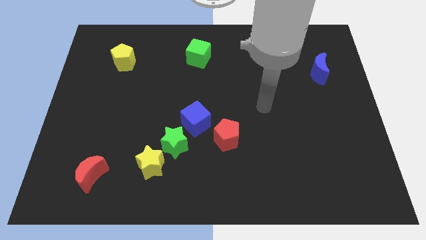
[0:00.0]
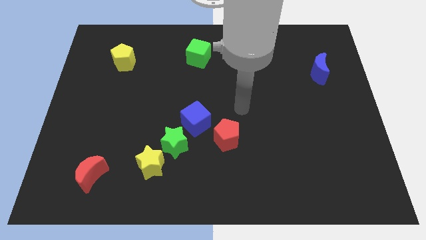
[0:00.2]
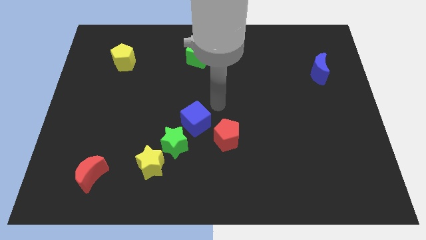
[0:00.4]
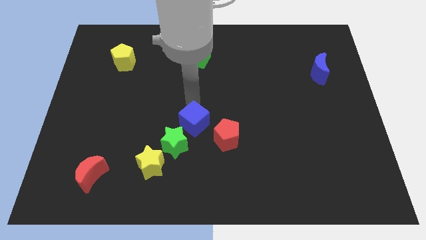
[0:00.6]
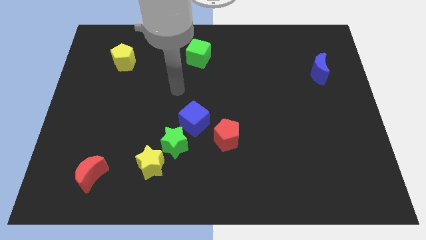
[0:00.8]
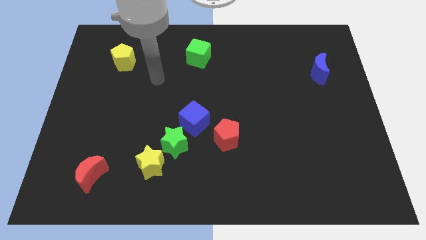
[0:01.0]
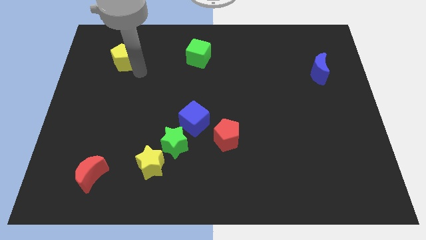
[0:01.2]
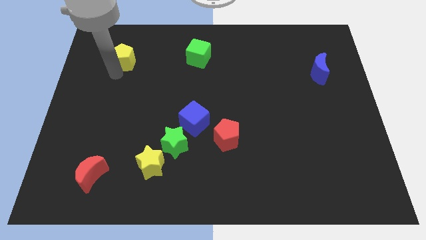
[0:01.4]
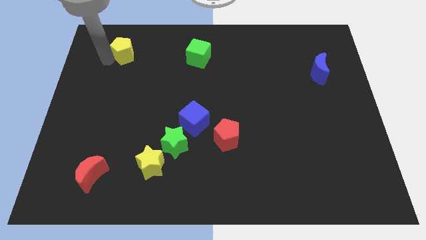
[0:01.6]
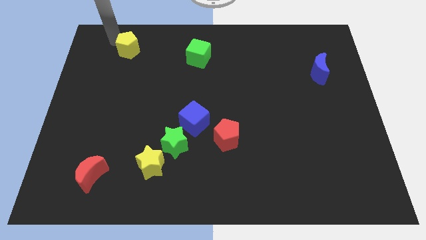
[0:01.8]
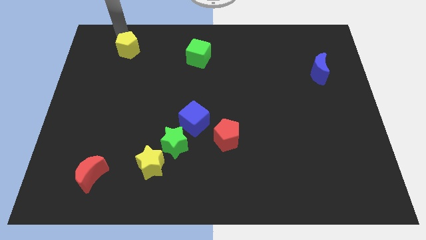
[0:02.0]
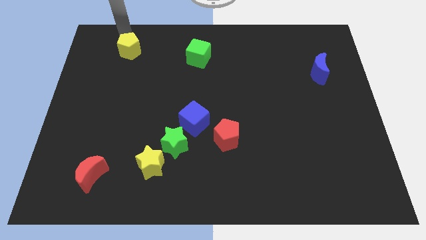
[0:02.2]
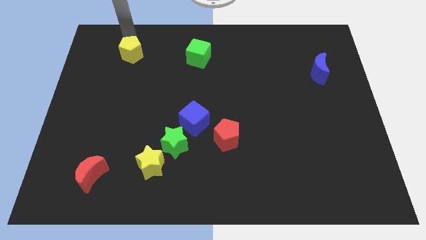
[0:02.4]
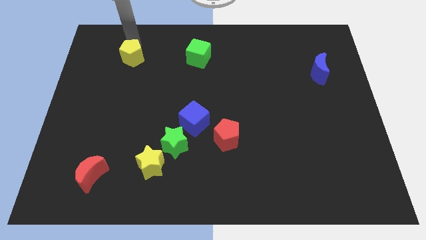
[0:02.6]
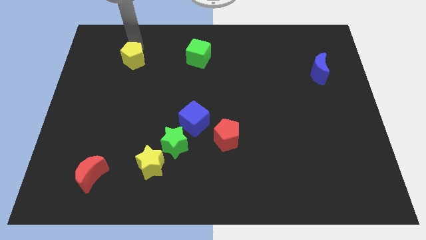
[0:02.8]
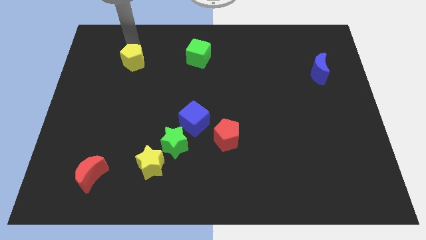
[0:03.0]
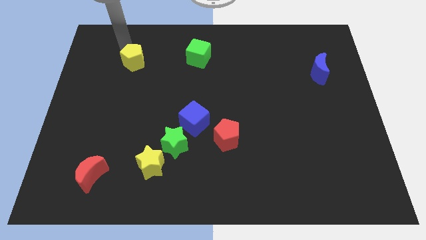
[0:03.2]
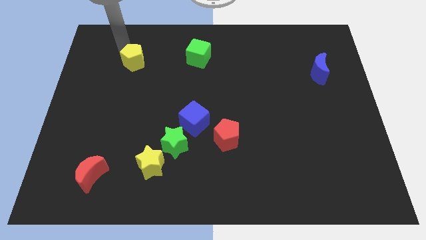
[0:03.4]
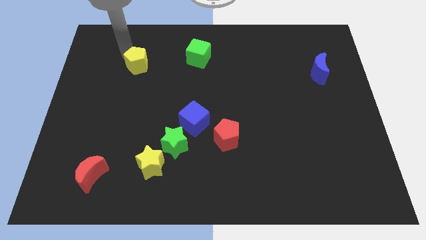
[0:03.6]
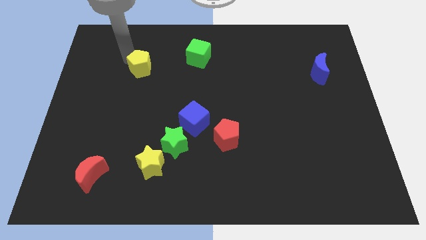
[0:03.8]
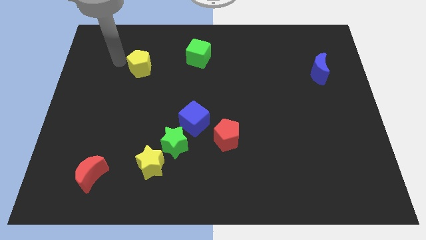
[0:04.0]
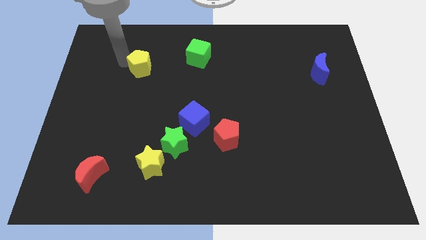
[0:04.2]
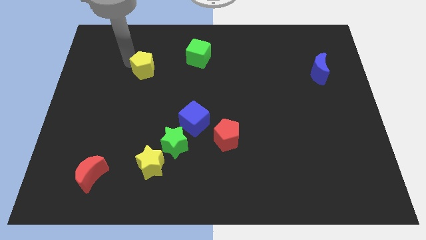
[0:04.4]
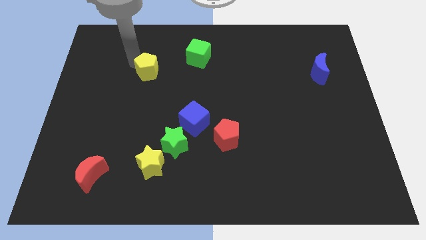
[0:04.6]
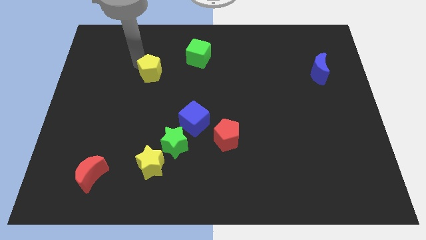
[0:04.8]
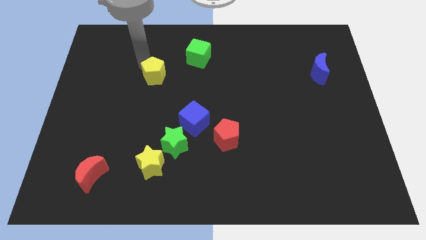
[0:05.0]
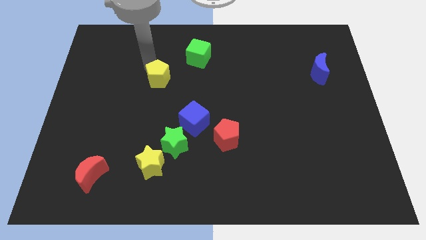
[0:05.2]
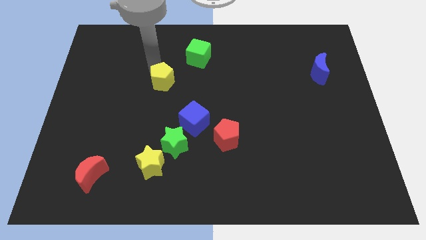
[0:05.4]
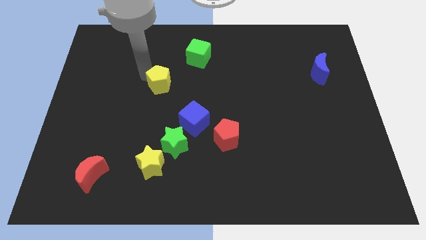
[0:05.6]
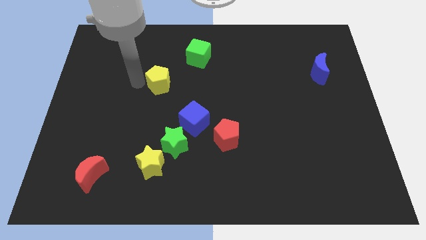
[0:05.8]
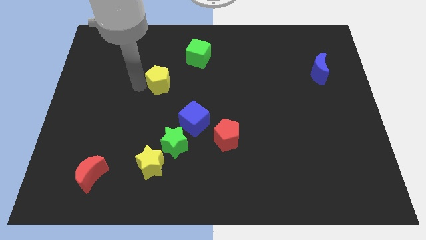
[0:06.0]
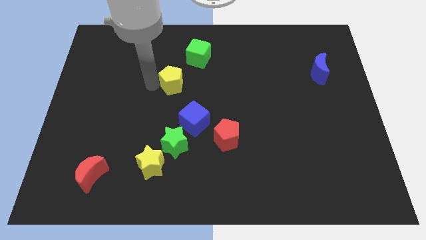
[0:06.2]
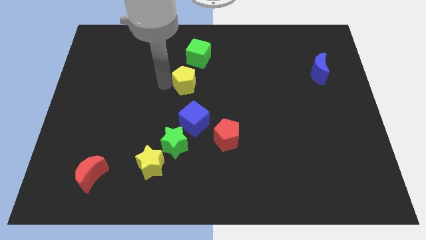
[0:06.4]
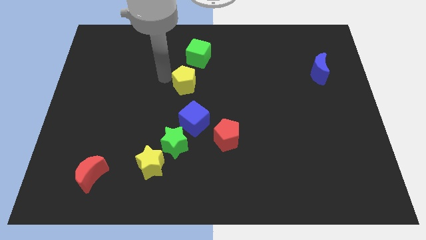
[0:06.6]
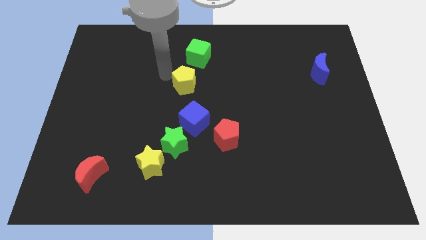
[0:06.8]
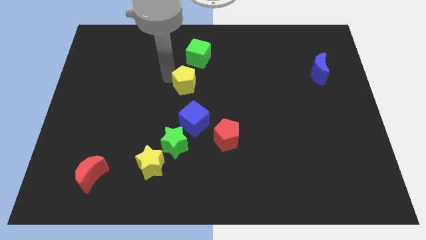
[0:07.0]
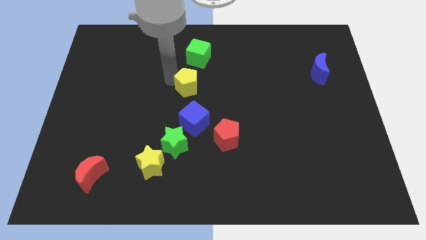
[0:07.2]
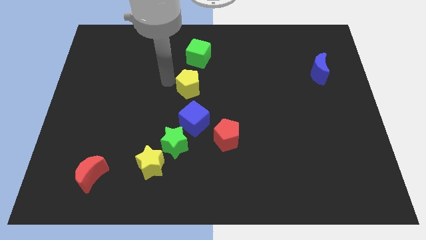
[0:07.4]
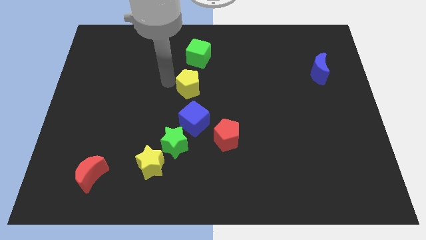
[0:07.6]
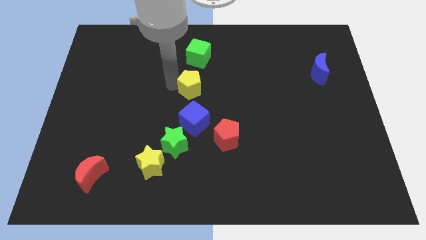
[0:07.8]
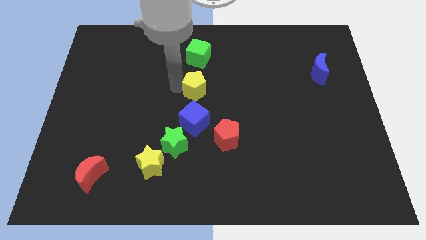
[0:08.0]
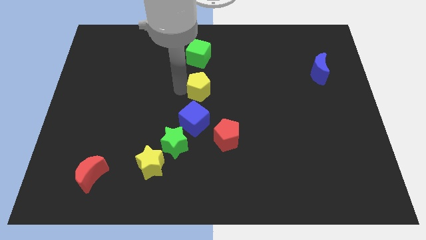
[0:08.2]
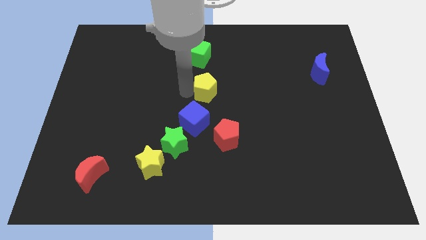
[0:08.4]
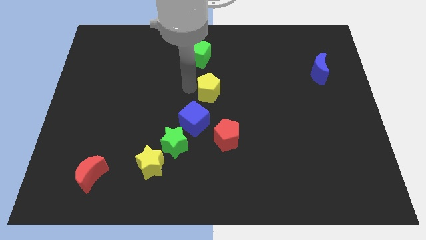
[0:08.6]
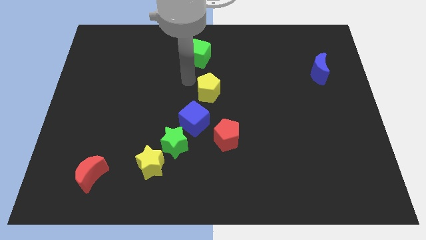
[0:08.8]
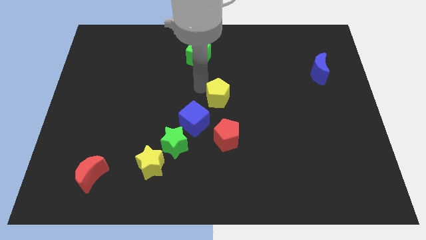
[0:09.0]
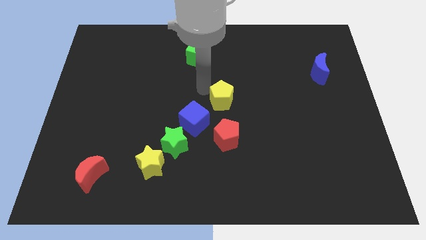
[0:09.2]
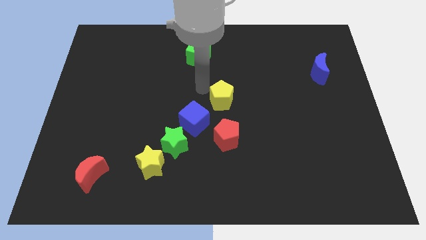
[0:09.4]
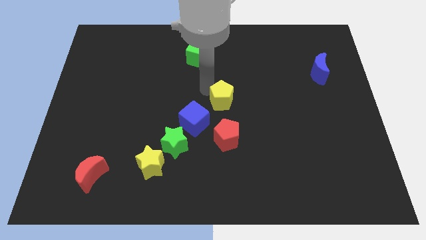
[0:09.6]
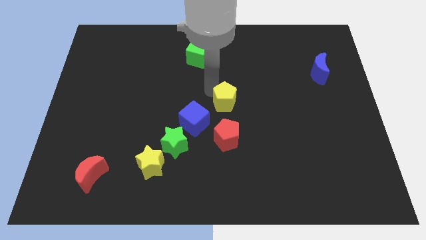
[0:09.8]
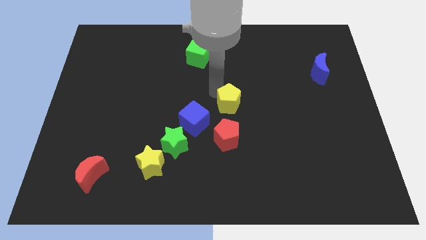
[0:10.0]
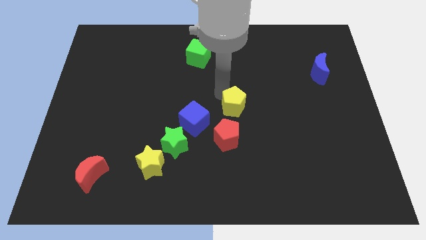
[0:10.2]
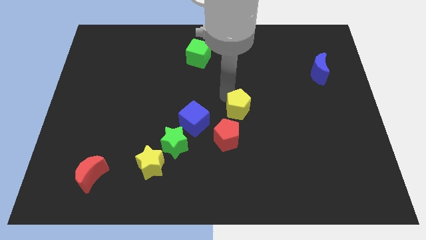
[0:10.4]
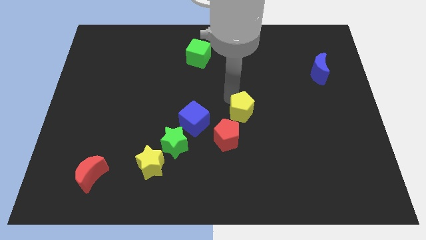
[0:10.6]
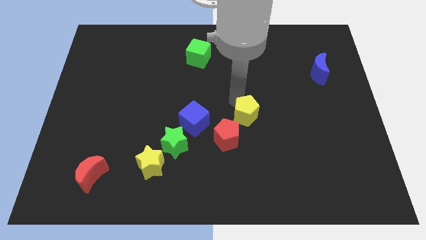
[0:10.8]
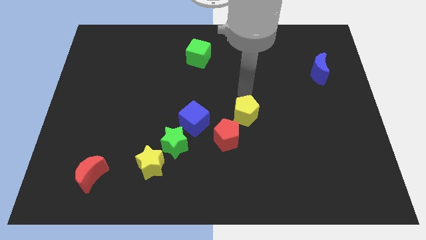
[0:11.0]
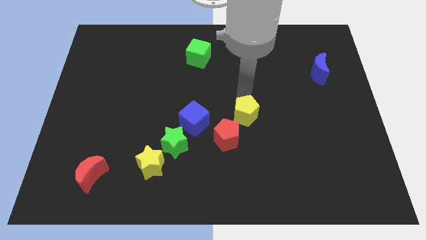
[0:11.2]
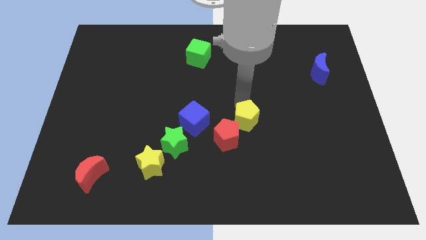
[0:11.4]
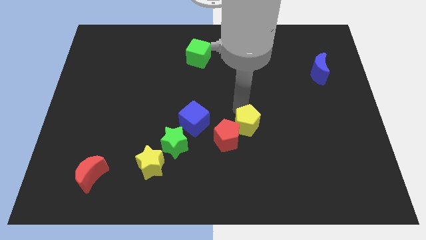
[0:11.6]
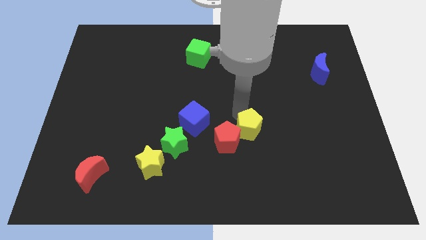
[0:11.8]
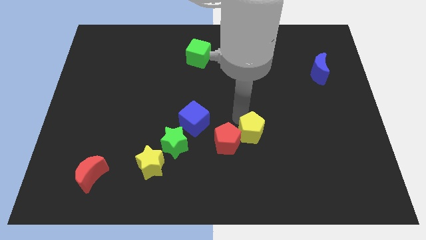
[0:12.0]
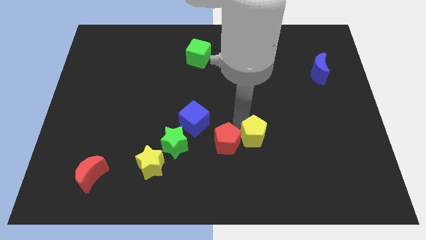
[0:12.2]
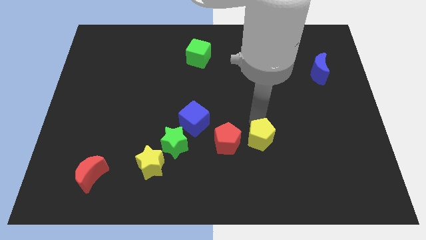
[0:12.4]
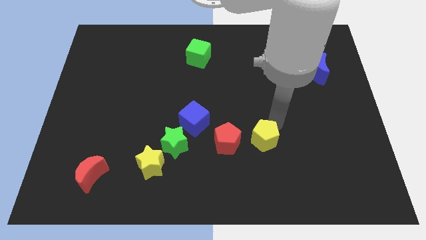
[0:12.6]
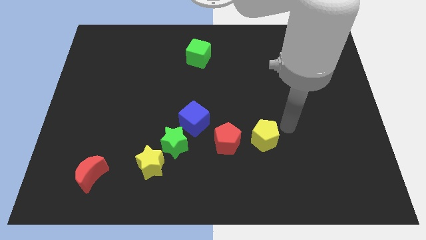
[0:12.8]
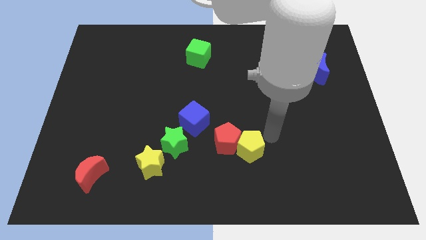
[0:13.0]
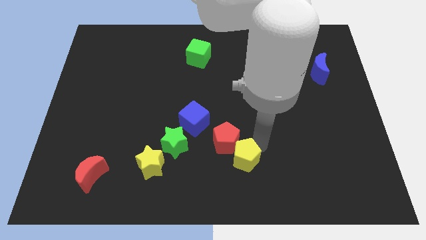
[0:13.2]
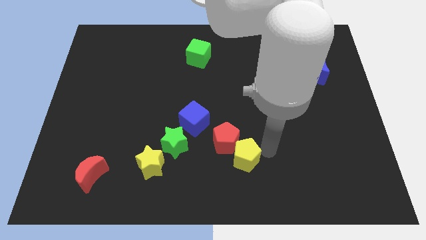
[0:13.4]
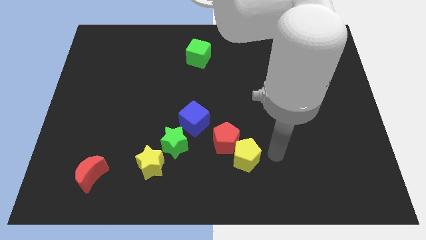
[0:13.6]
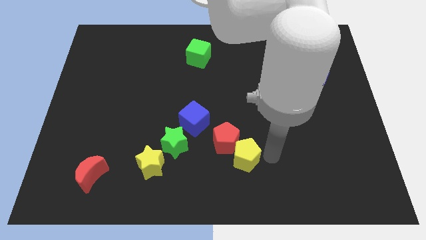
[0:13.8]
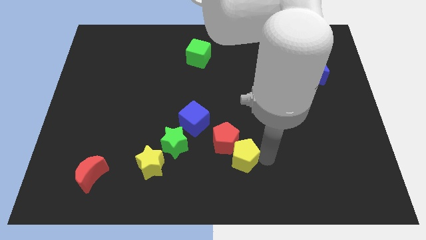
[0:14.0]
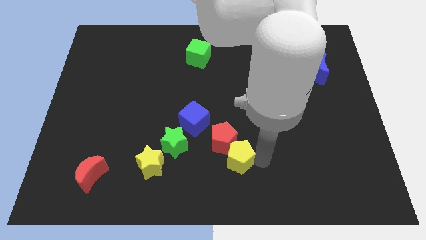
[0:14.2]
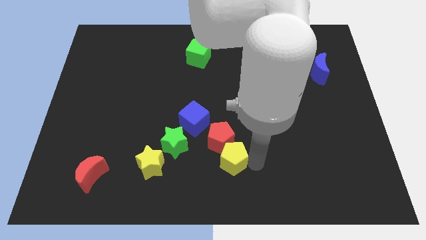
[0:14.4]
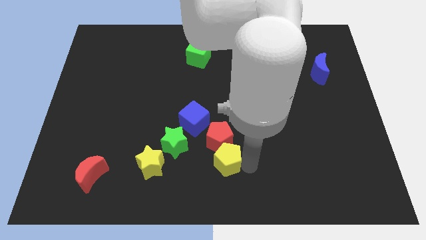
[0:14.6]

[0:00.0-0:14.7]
move the yellow pentagon to the right of the yellow star
